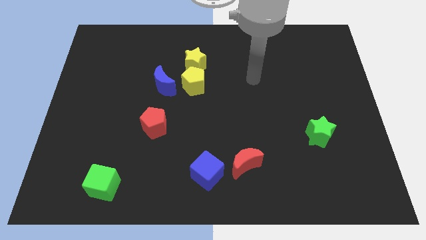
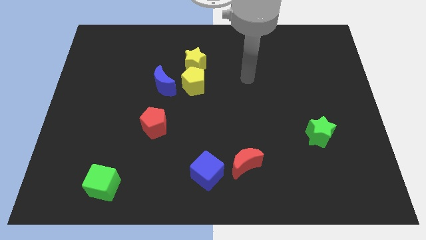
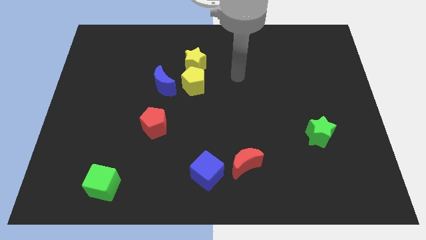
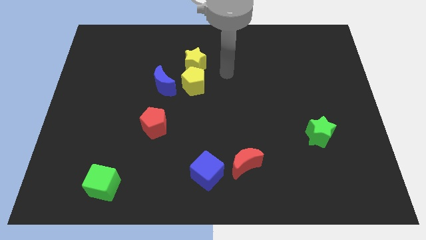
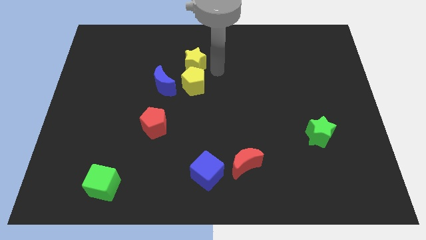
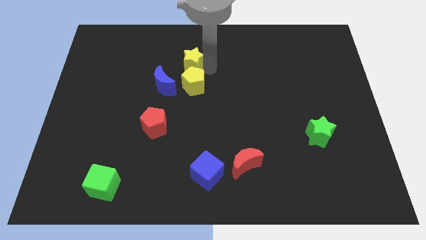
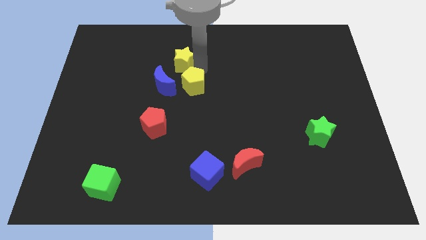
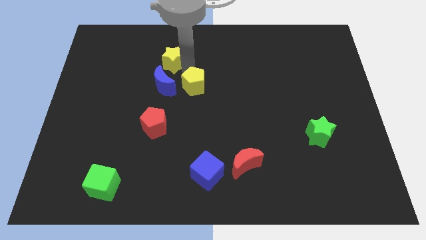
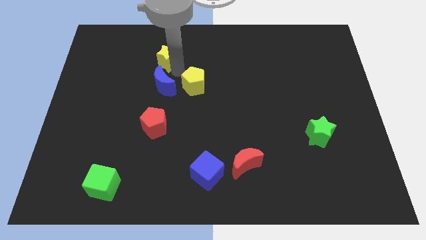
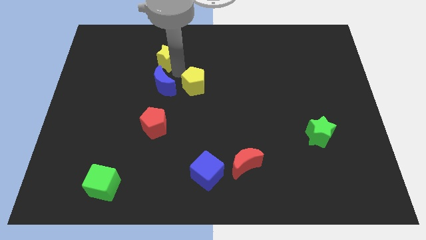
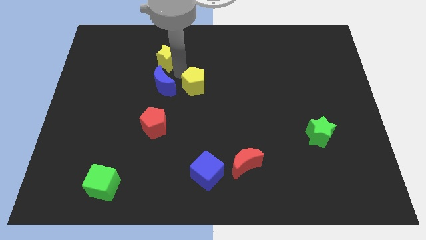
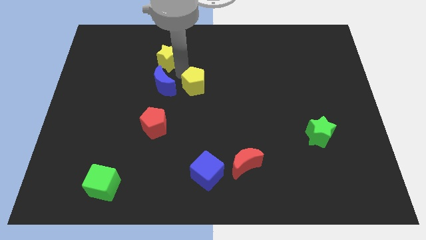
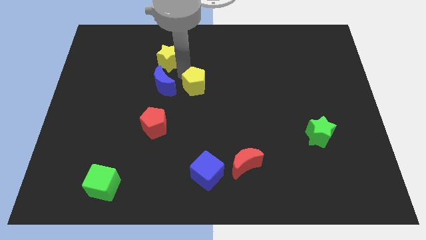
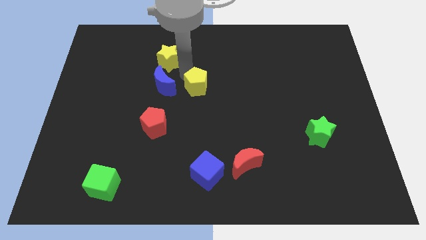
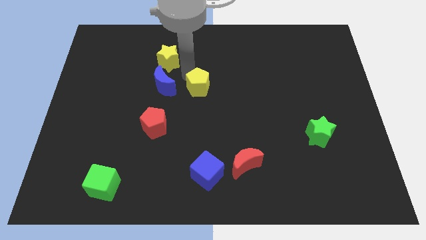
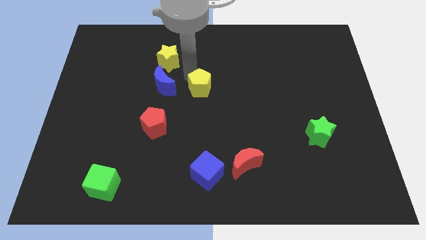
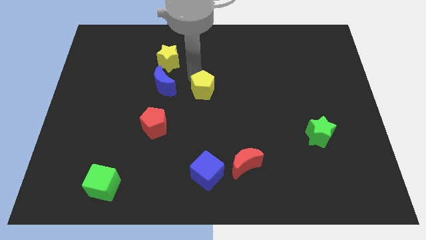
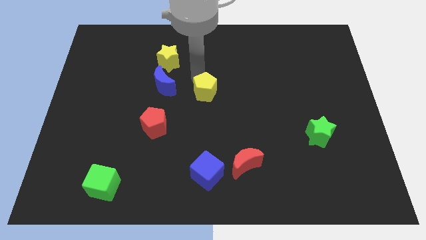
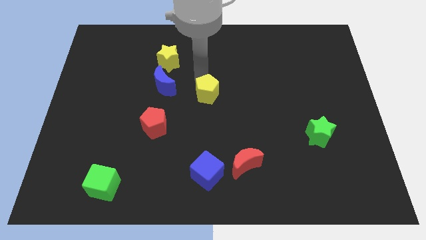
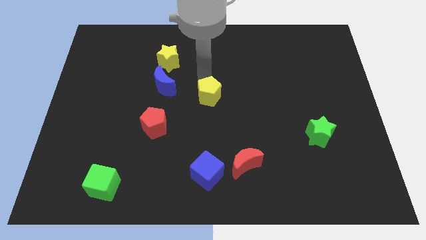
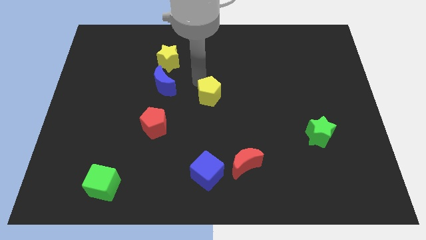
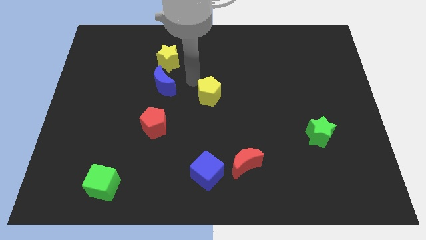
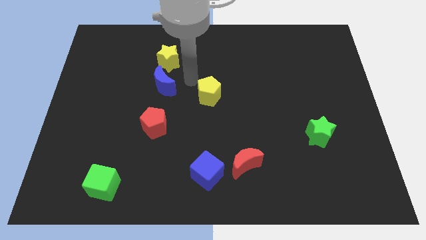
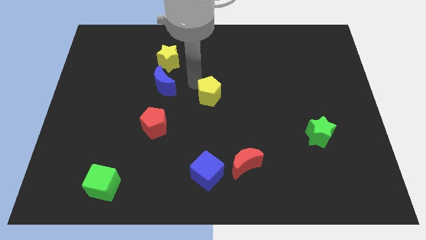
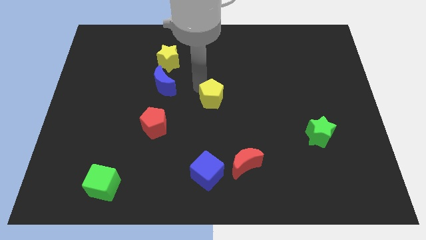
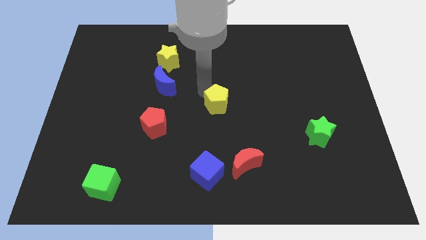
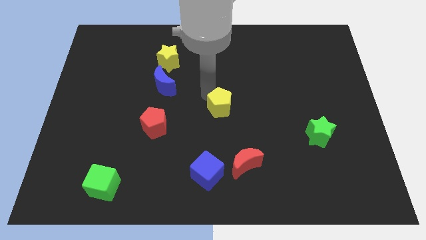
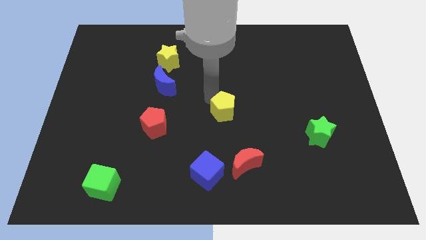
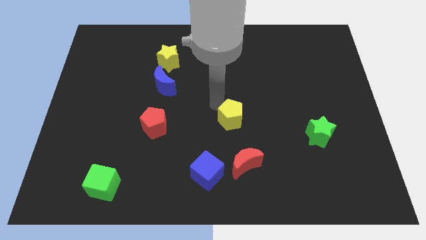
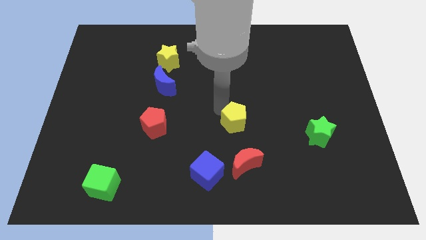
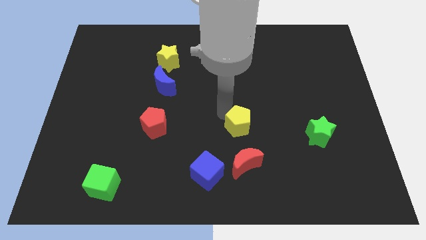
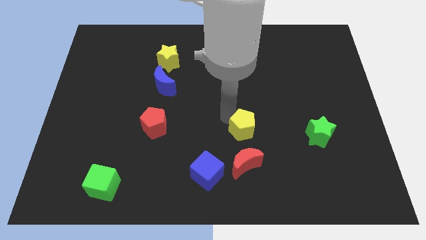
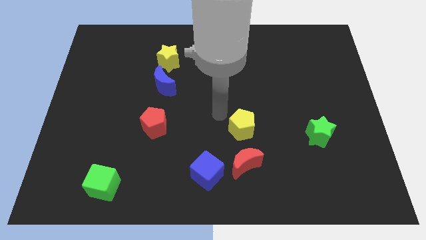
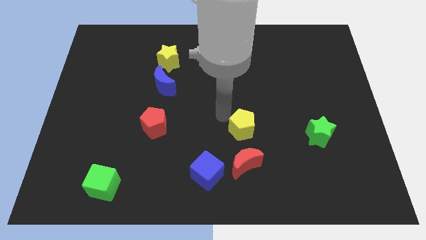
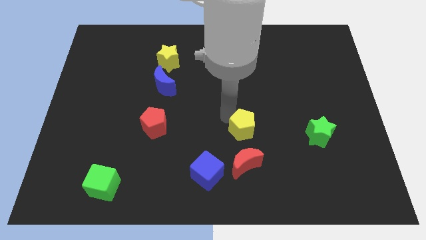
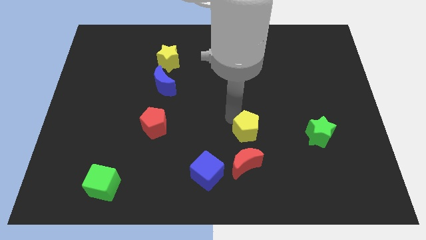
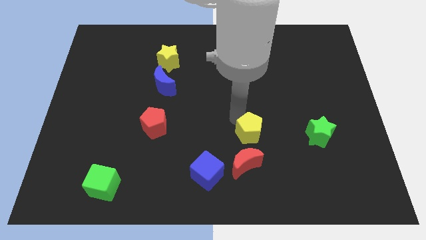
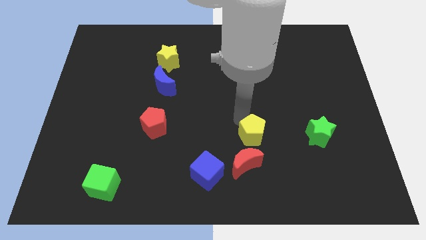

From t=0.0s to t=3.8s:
push the yellow pentagon downwards and then right

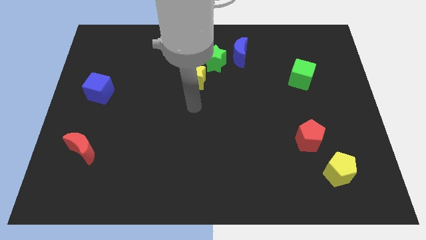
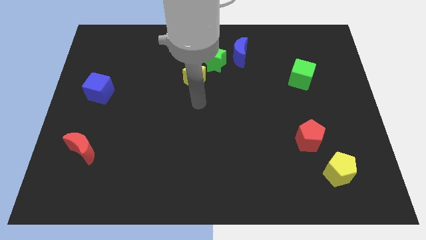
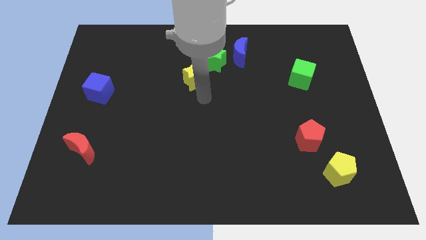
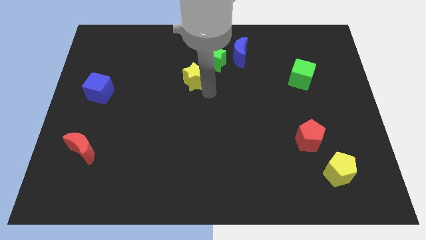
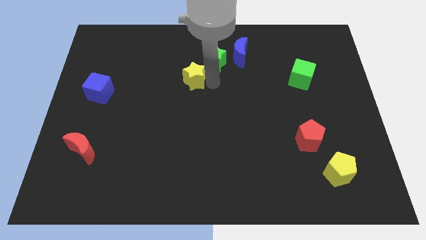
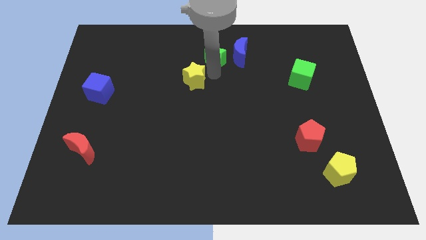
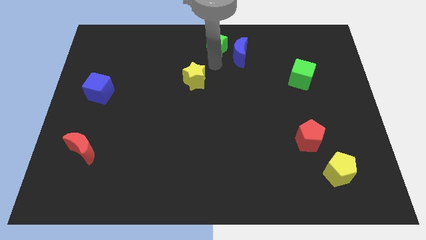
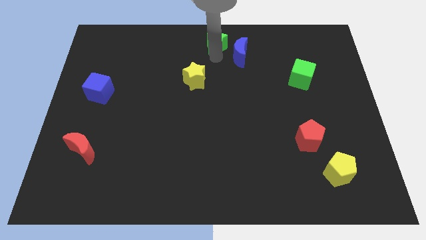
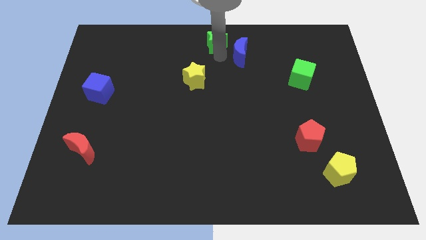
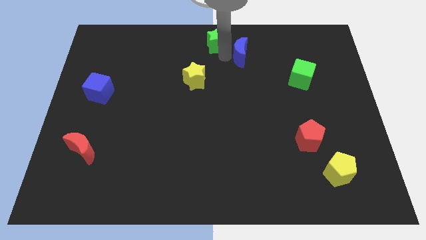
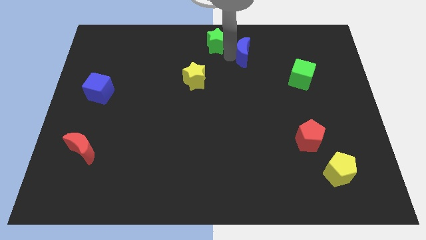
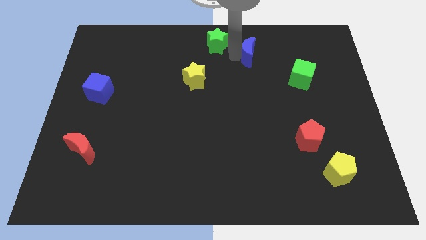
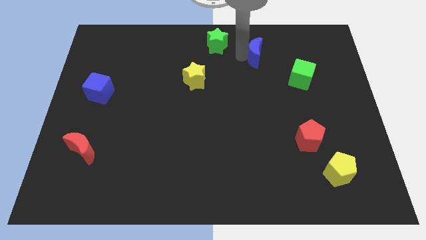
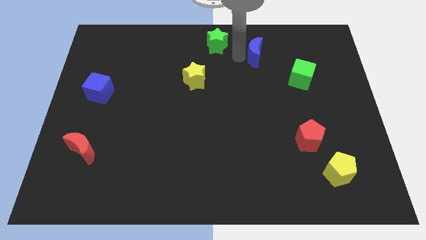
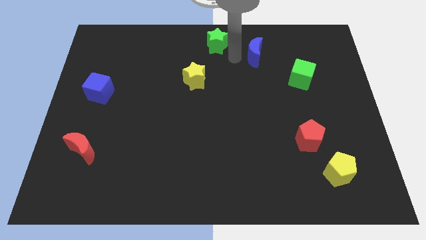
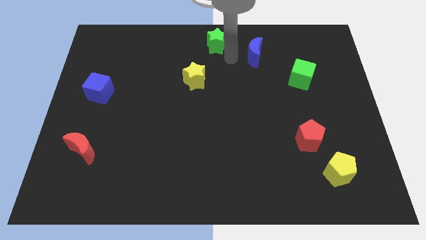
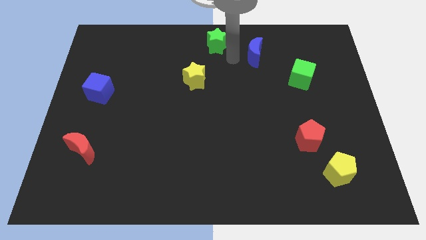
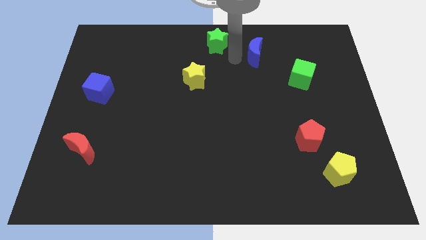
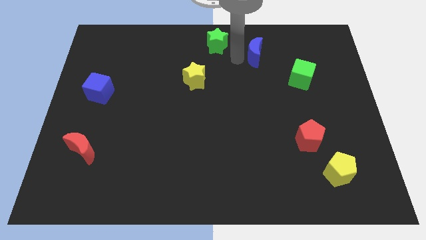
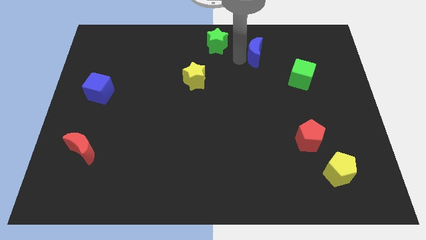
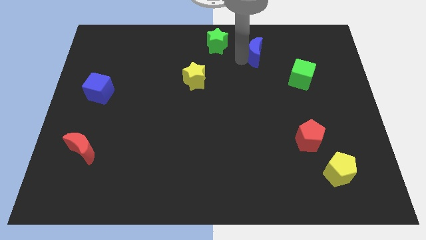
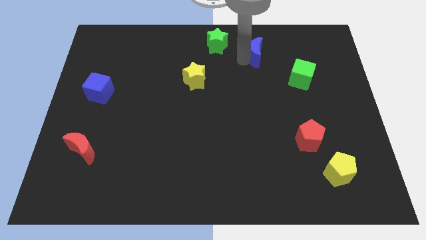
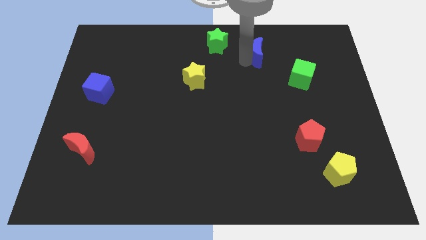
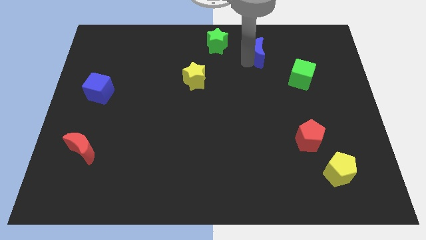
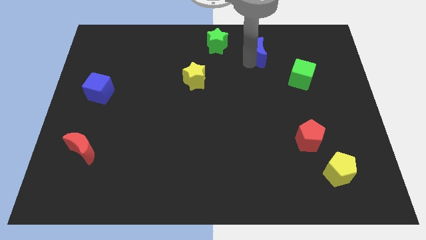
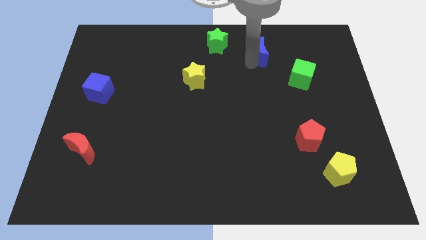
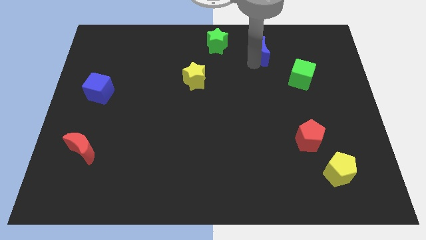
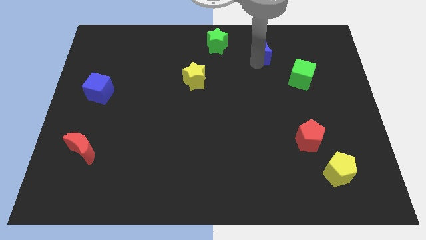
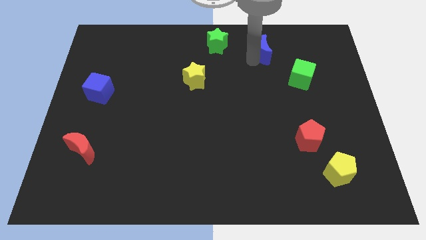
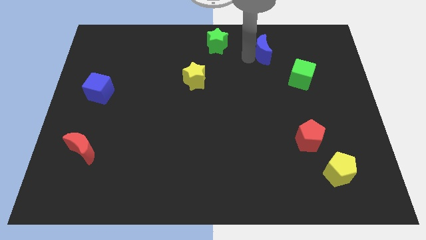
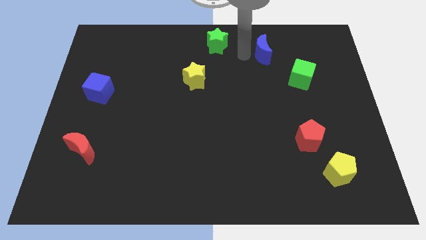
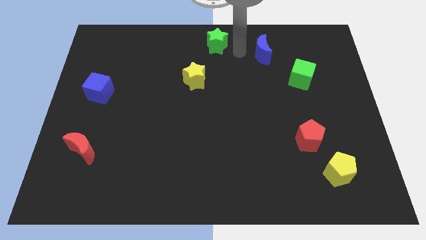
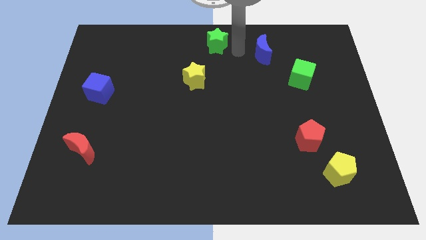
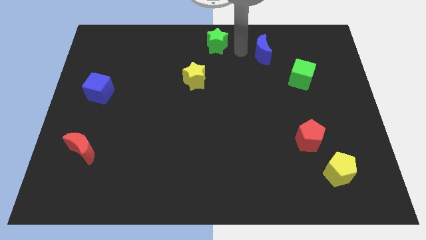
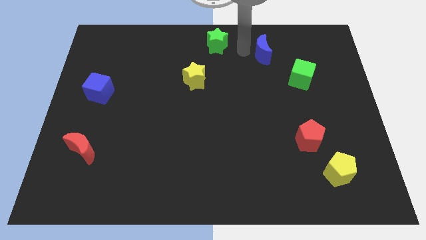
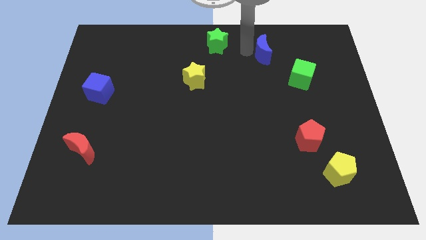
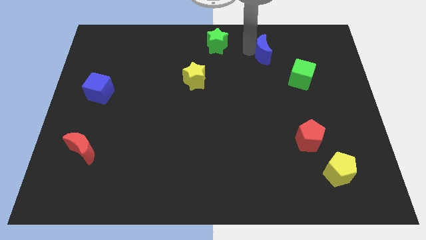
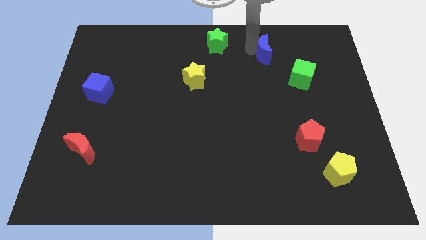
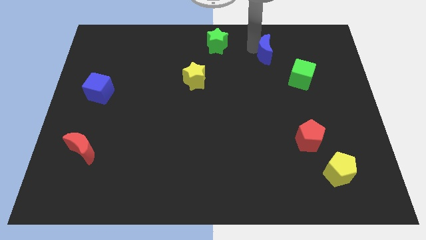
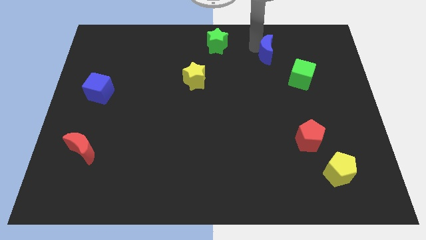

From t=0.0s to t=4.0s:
move the blue moon a little to the right

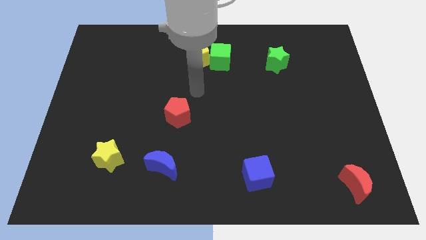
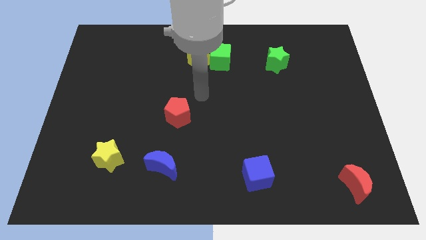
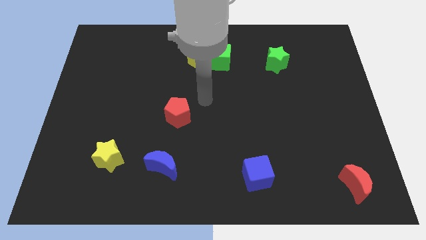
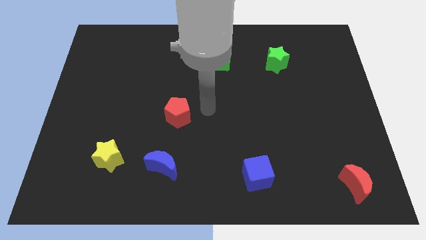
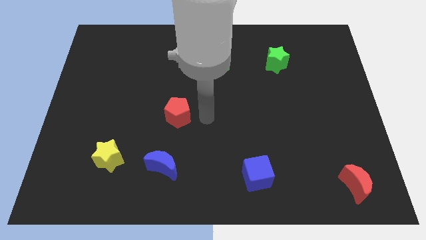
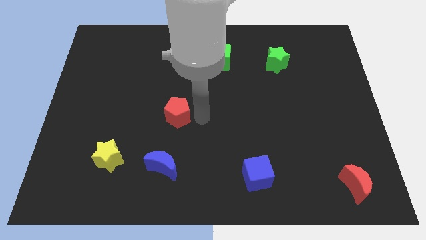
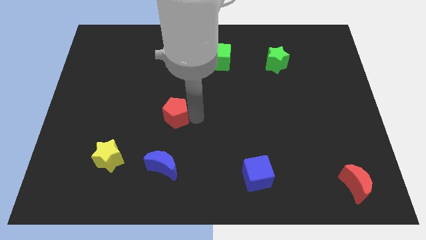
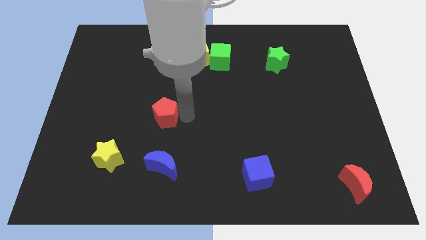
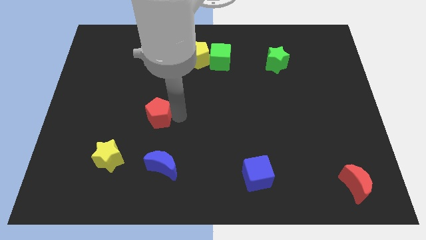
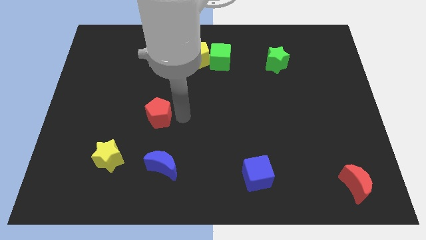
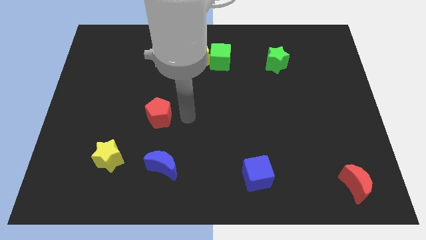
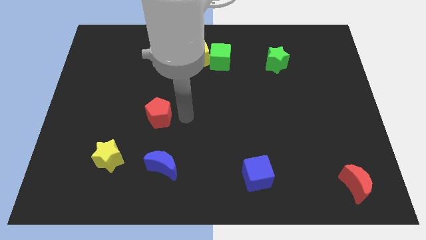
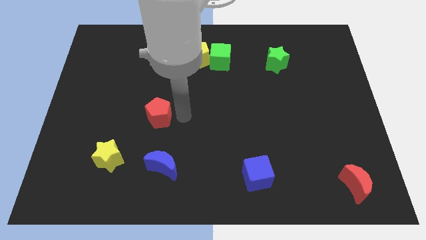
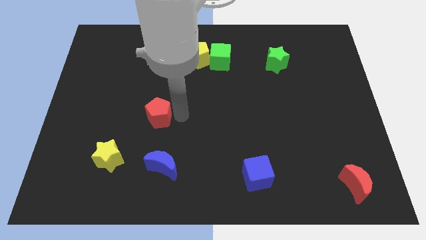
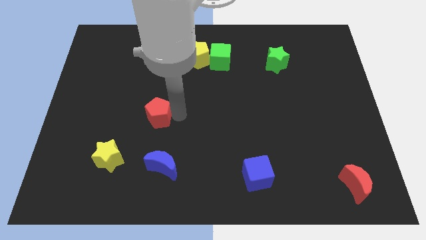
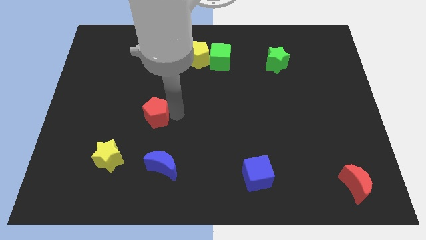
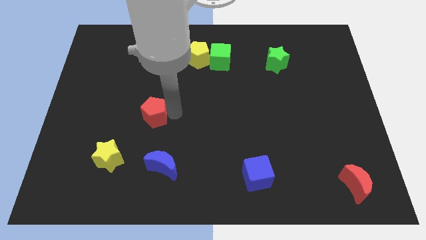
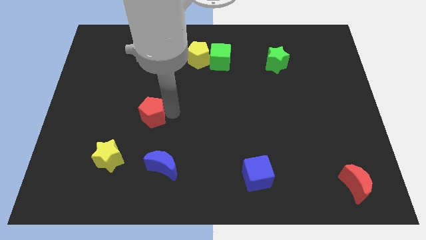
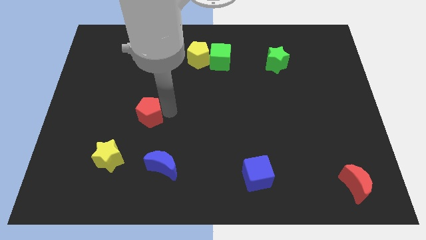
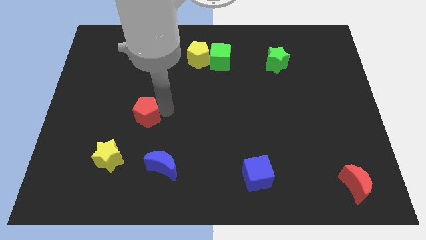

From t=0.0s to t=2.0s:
slightly push the red pentagon to the left
